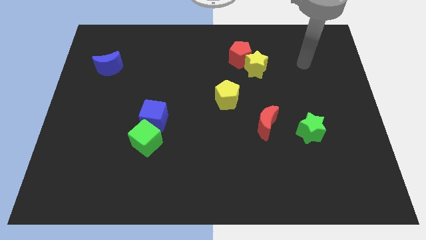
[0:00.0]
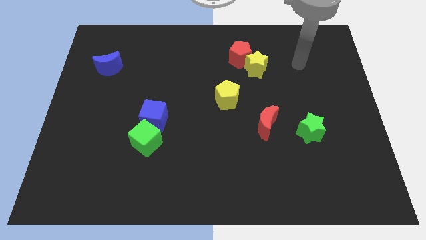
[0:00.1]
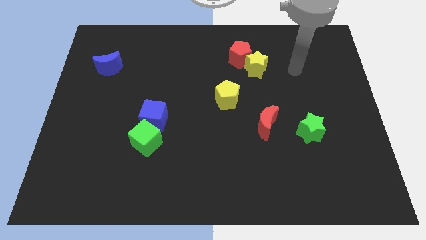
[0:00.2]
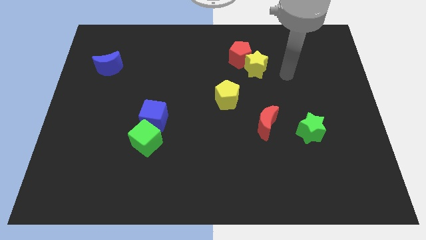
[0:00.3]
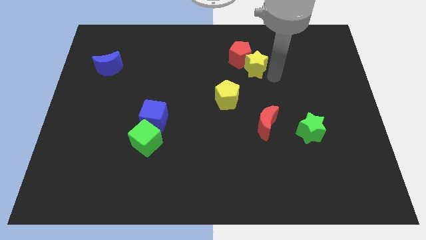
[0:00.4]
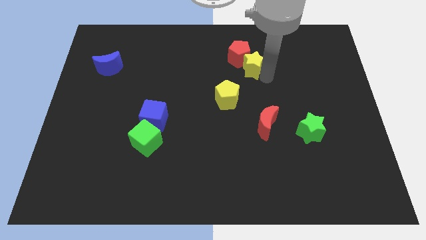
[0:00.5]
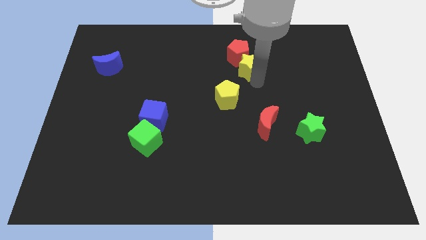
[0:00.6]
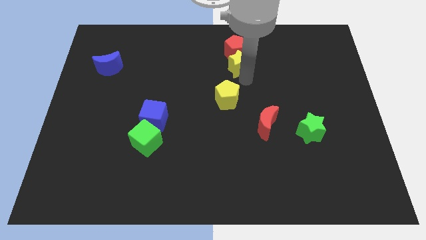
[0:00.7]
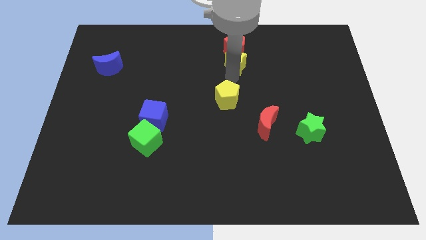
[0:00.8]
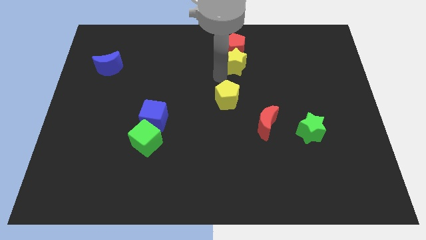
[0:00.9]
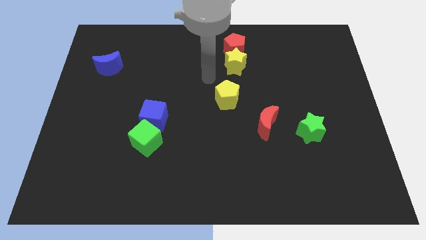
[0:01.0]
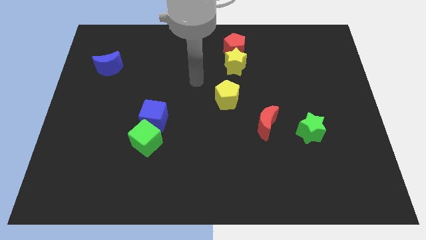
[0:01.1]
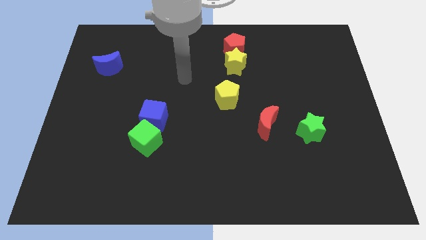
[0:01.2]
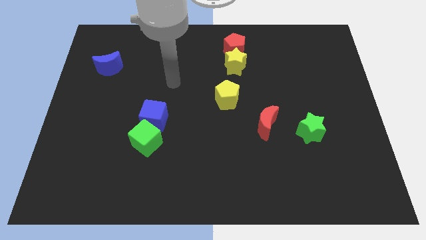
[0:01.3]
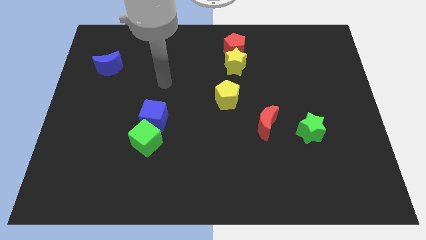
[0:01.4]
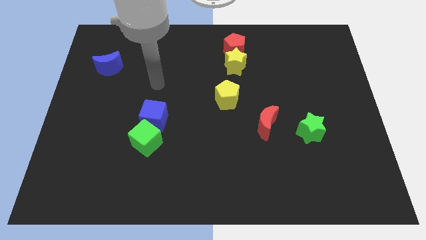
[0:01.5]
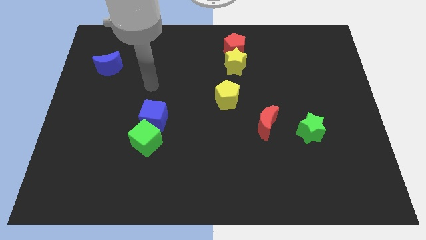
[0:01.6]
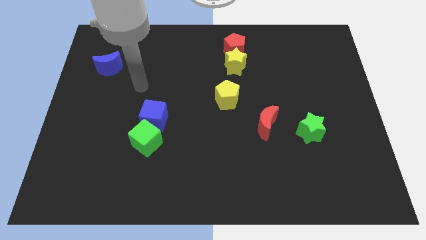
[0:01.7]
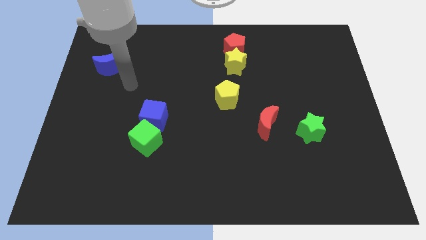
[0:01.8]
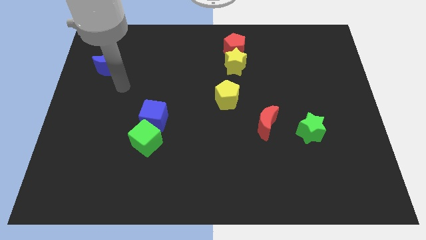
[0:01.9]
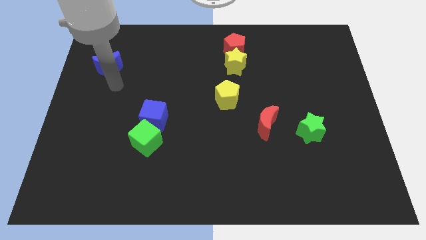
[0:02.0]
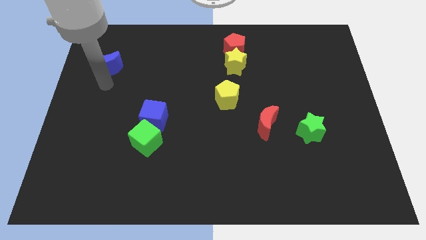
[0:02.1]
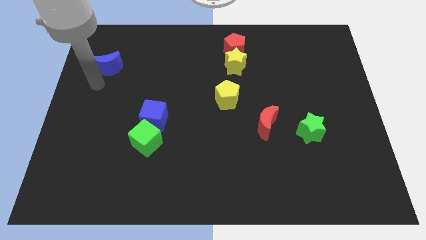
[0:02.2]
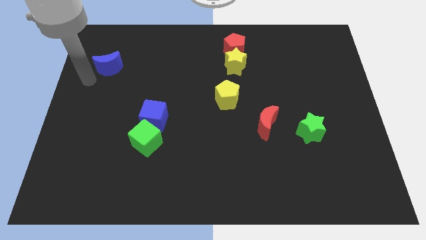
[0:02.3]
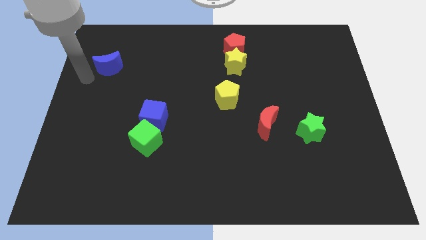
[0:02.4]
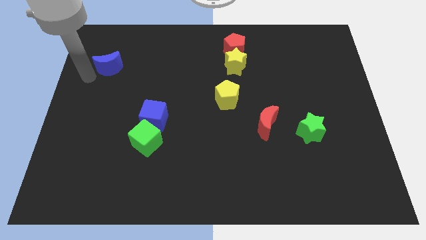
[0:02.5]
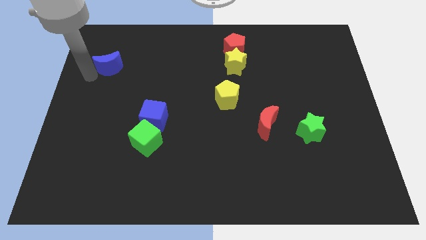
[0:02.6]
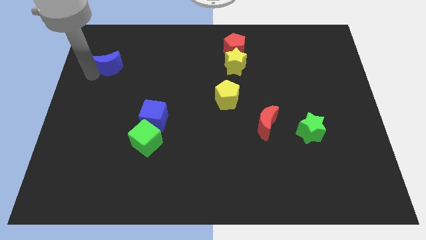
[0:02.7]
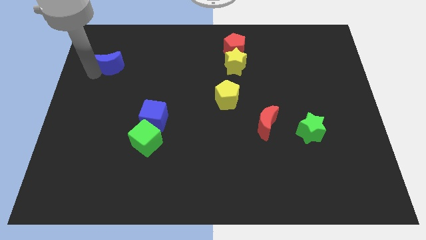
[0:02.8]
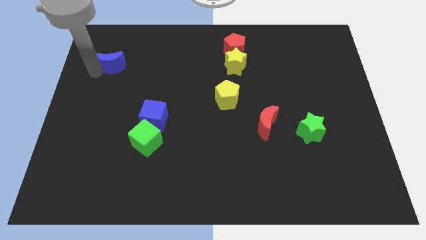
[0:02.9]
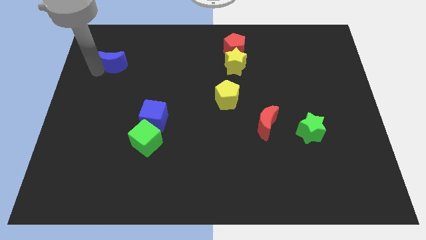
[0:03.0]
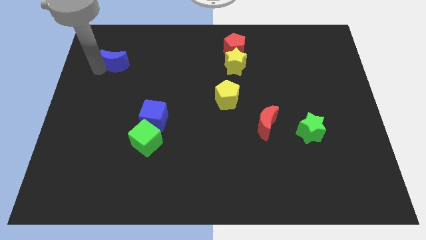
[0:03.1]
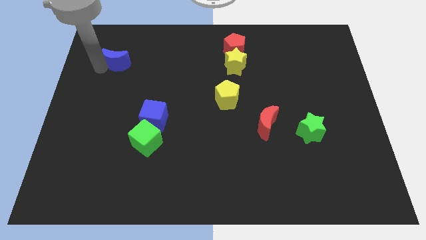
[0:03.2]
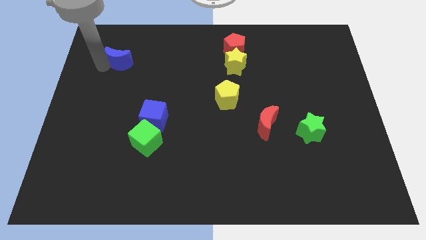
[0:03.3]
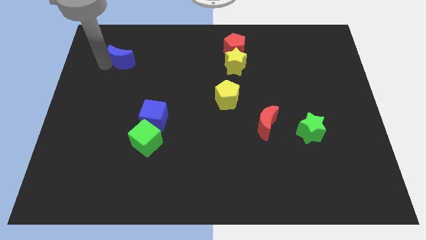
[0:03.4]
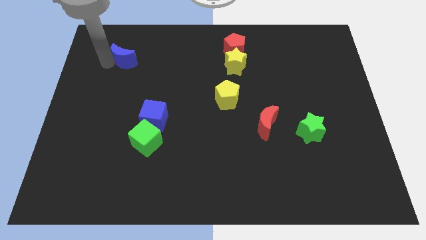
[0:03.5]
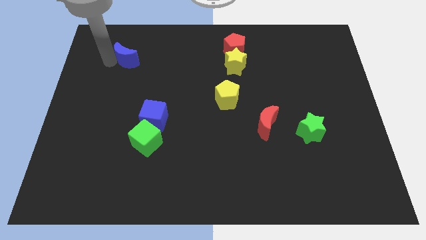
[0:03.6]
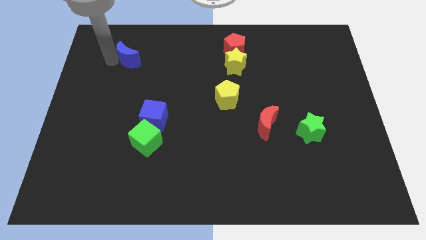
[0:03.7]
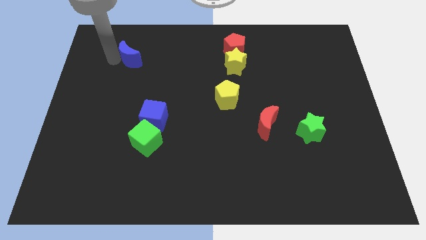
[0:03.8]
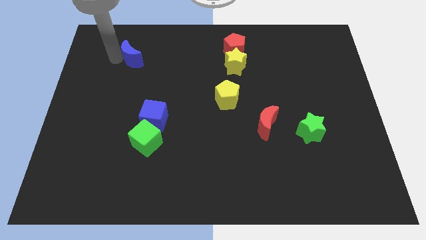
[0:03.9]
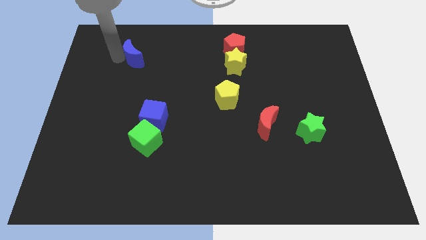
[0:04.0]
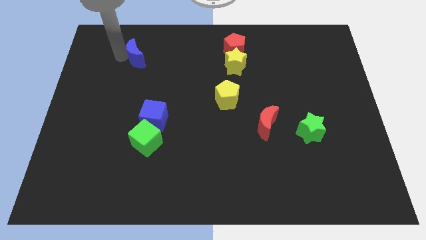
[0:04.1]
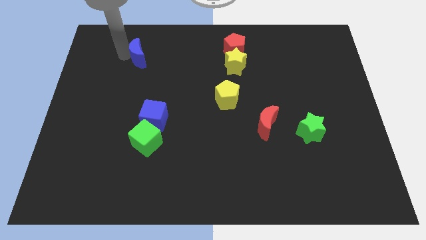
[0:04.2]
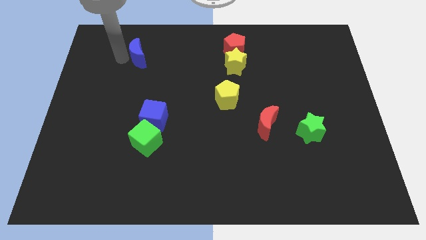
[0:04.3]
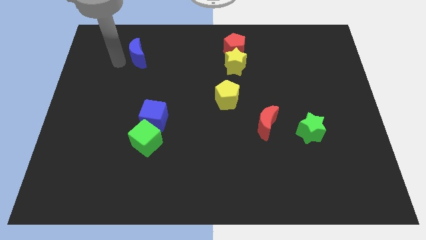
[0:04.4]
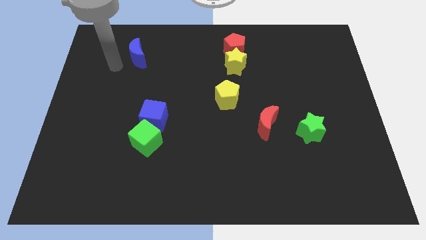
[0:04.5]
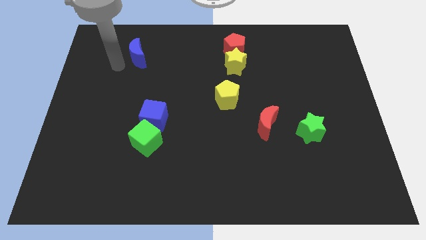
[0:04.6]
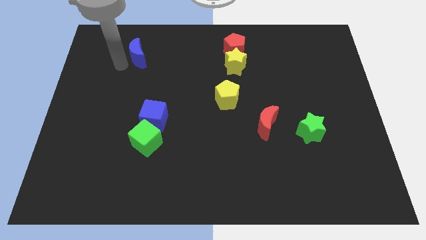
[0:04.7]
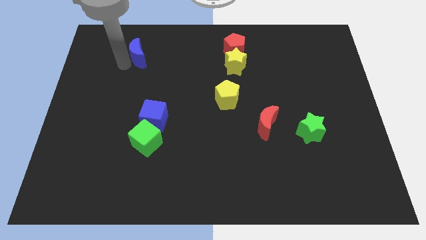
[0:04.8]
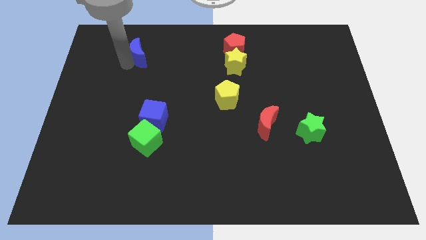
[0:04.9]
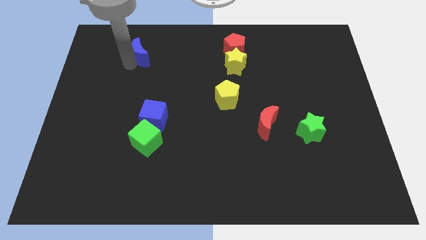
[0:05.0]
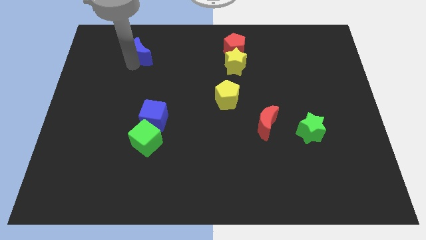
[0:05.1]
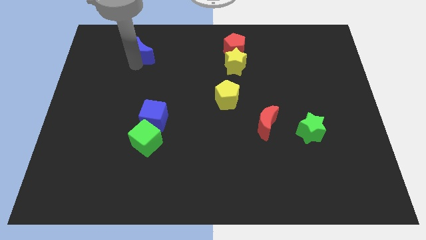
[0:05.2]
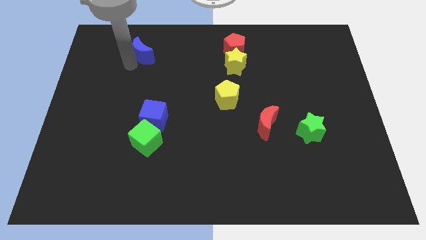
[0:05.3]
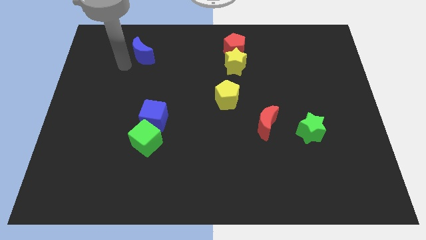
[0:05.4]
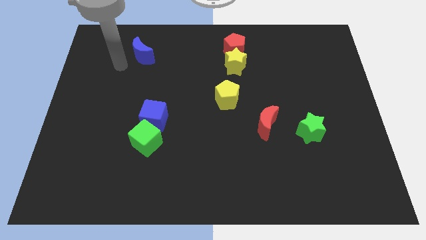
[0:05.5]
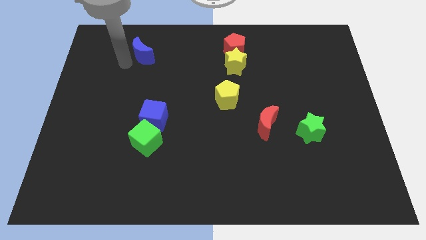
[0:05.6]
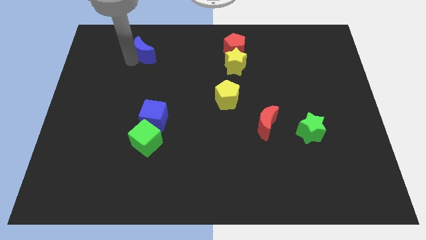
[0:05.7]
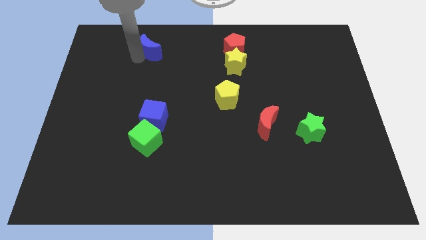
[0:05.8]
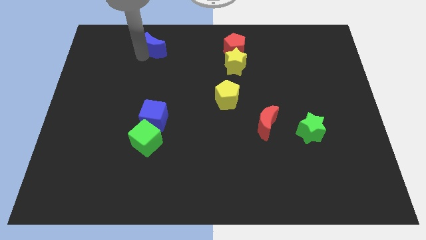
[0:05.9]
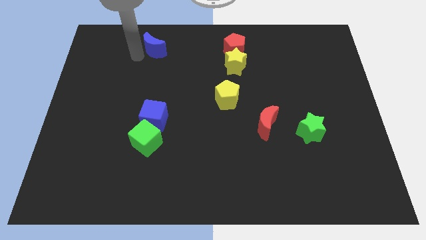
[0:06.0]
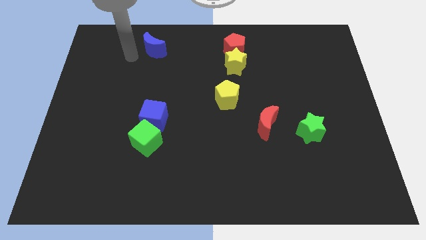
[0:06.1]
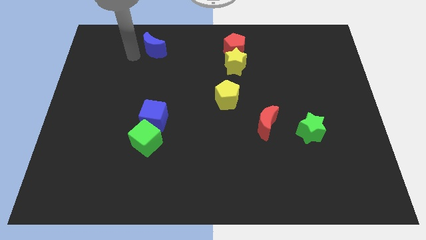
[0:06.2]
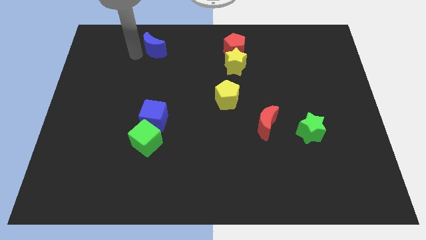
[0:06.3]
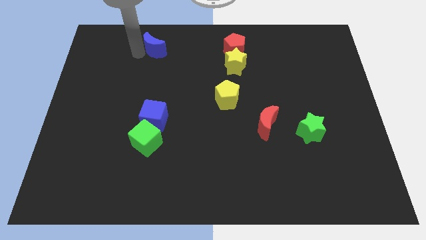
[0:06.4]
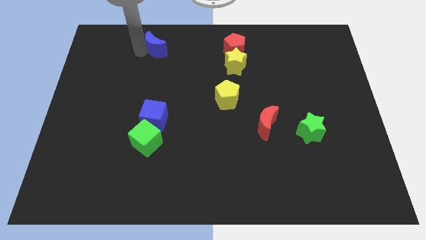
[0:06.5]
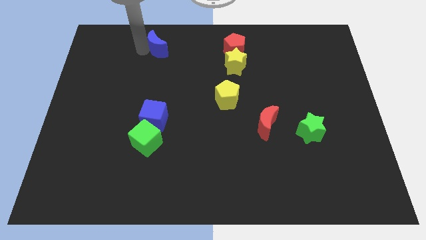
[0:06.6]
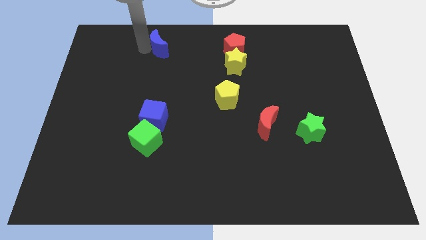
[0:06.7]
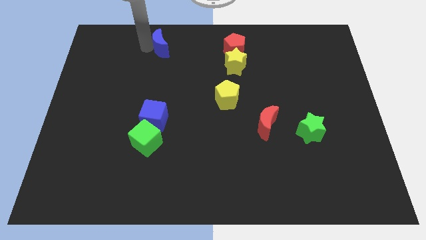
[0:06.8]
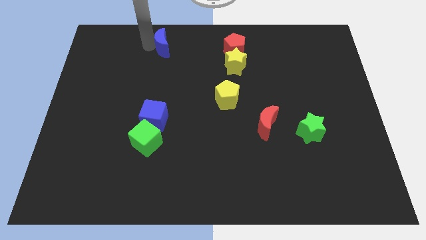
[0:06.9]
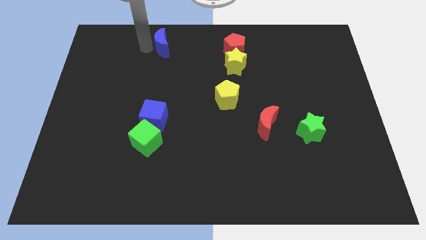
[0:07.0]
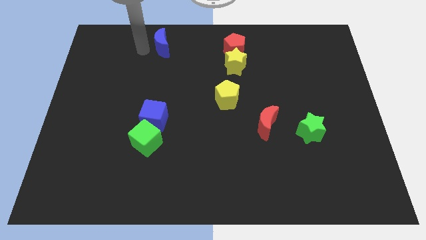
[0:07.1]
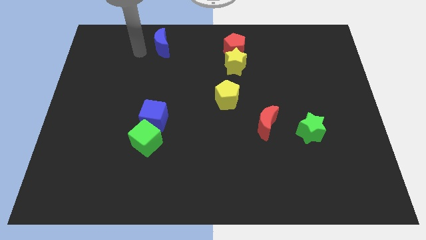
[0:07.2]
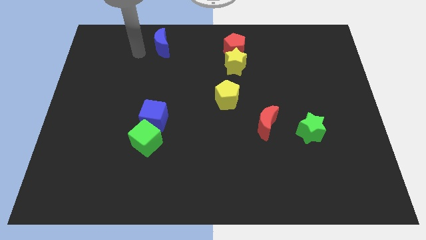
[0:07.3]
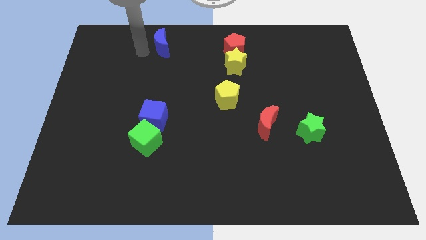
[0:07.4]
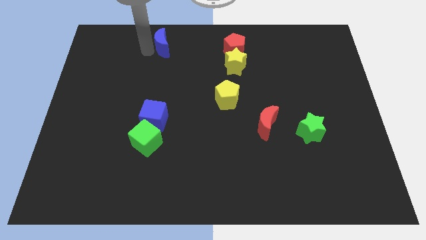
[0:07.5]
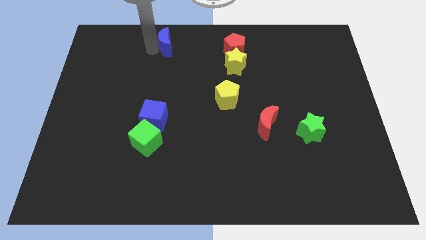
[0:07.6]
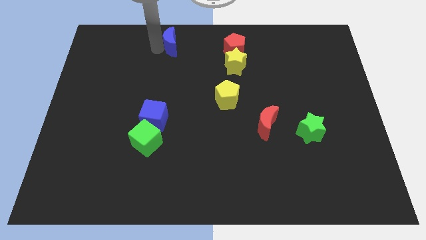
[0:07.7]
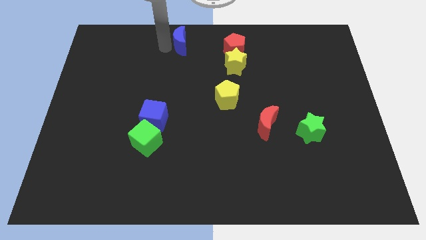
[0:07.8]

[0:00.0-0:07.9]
push the blue moon to the towards your base
